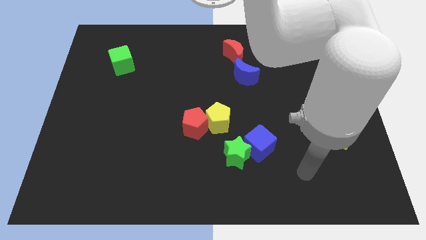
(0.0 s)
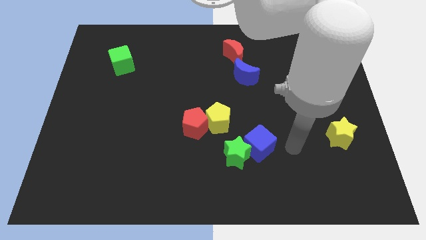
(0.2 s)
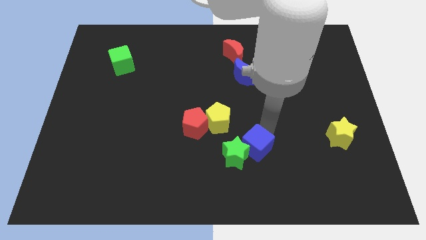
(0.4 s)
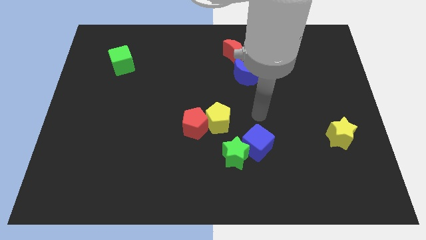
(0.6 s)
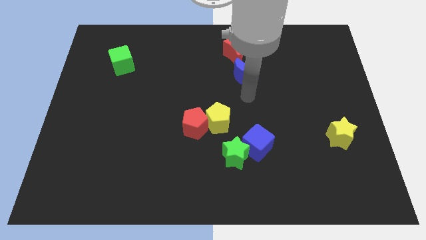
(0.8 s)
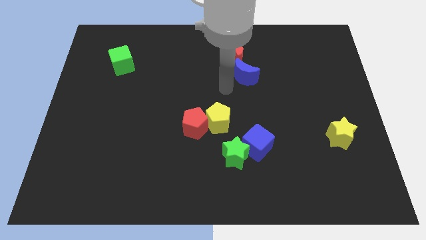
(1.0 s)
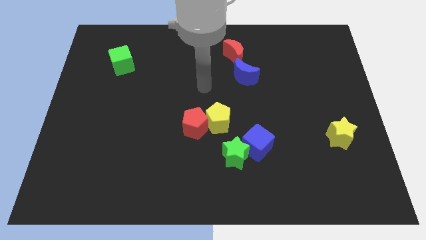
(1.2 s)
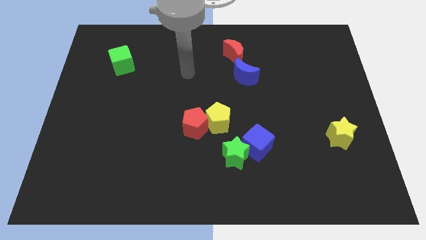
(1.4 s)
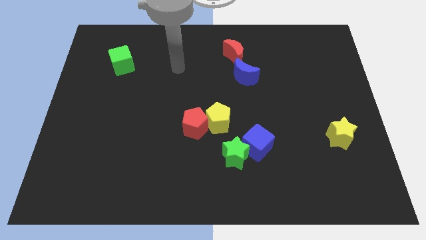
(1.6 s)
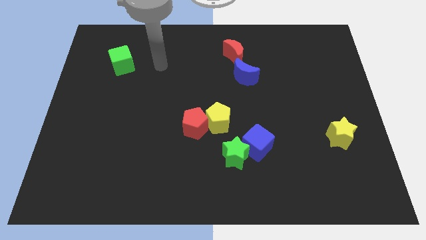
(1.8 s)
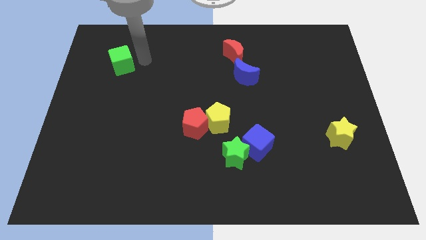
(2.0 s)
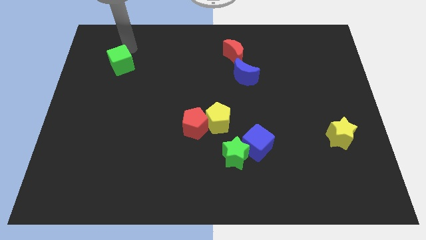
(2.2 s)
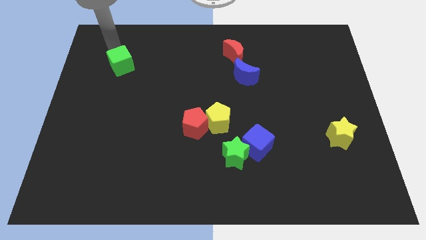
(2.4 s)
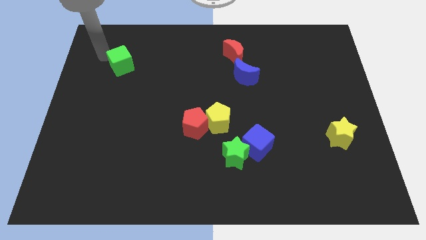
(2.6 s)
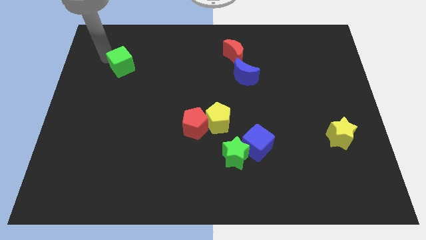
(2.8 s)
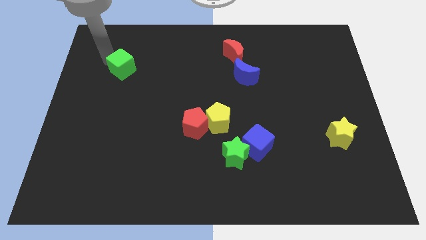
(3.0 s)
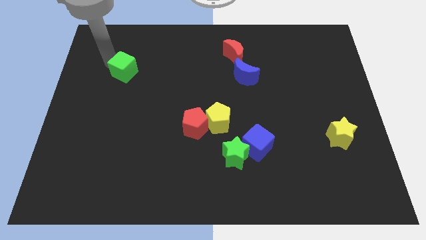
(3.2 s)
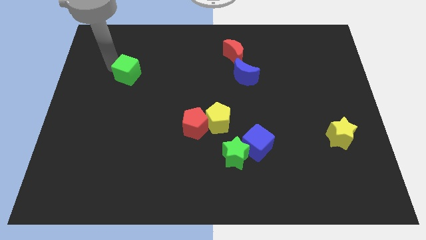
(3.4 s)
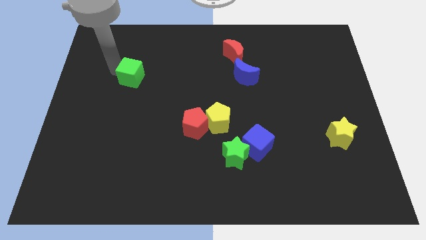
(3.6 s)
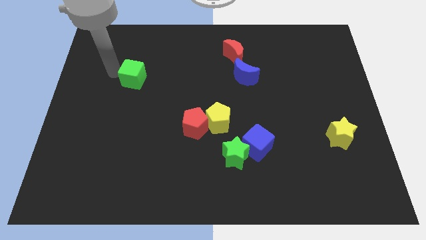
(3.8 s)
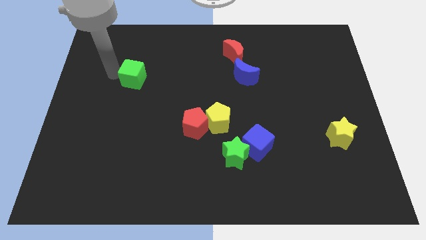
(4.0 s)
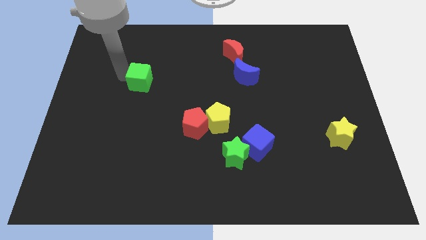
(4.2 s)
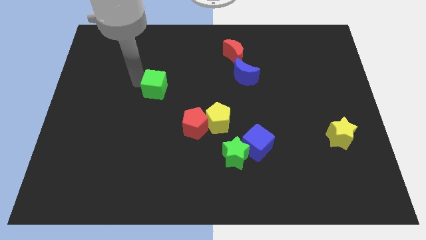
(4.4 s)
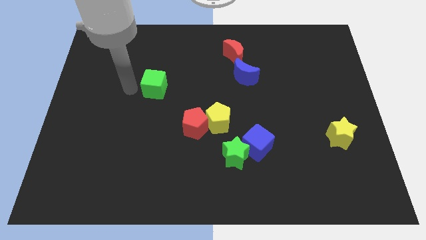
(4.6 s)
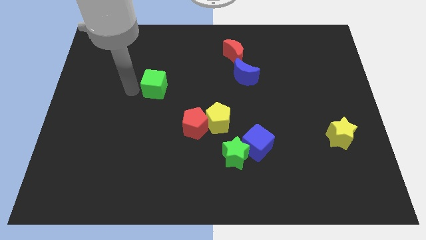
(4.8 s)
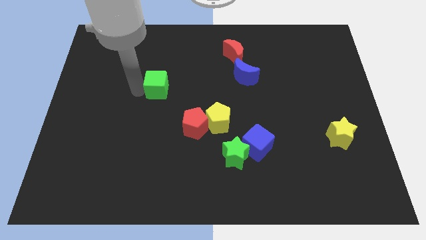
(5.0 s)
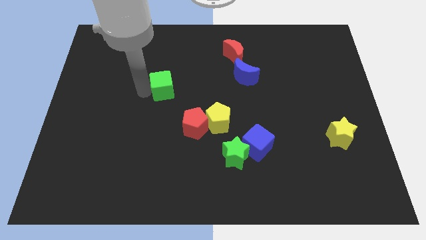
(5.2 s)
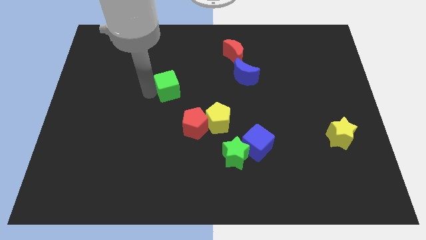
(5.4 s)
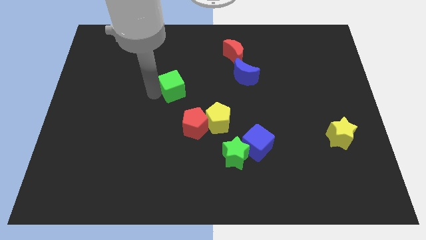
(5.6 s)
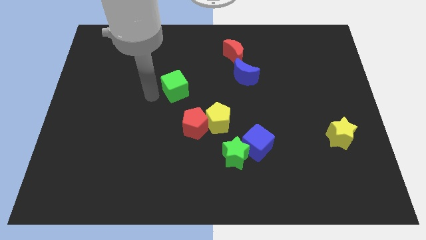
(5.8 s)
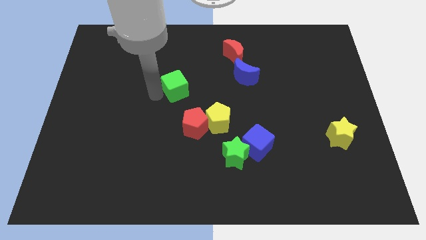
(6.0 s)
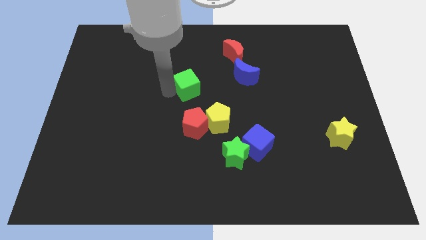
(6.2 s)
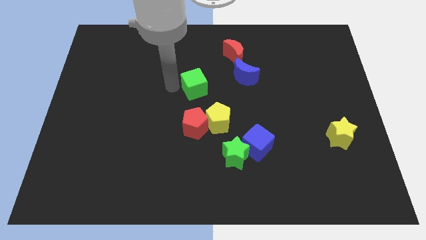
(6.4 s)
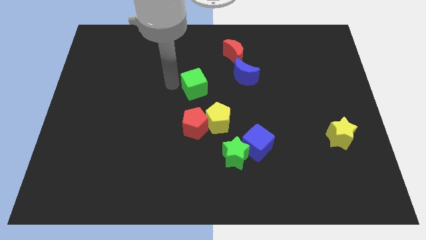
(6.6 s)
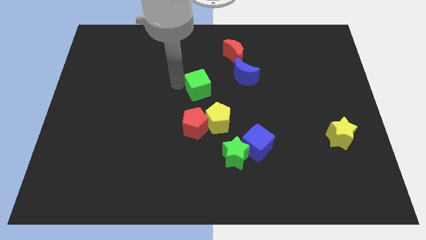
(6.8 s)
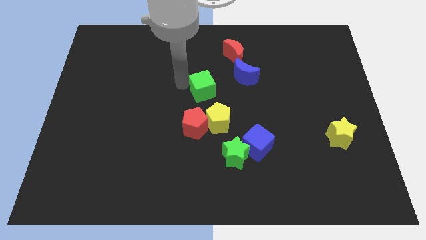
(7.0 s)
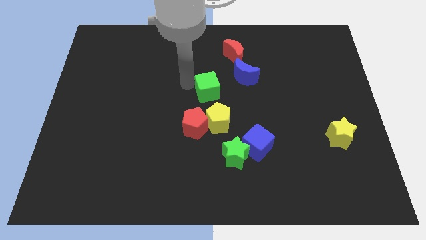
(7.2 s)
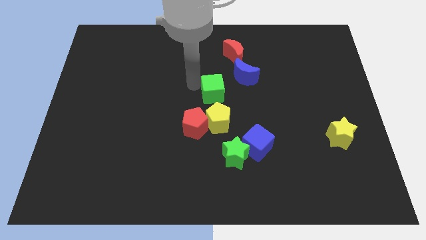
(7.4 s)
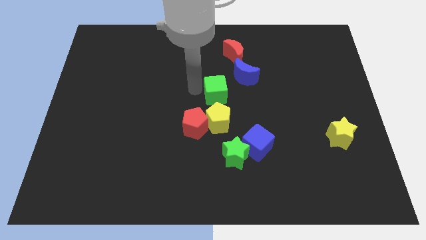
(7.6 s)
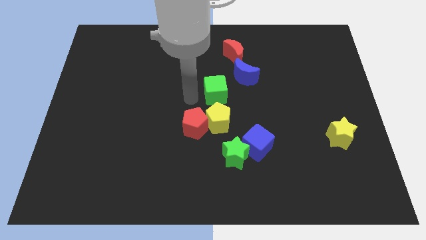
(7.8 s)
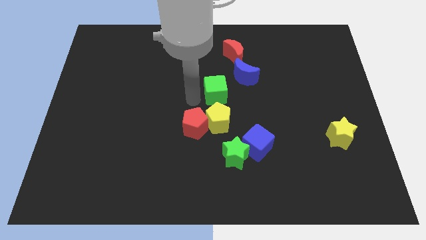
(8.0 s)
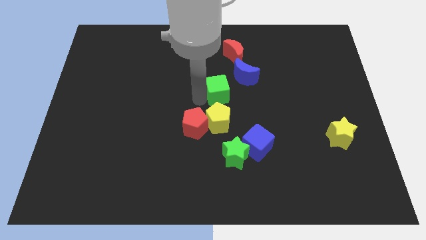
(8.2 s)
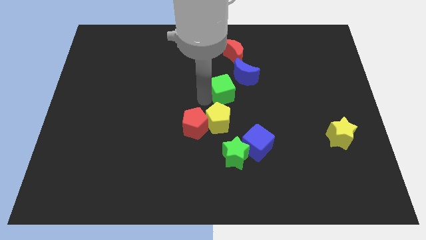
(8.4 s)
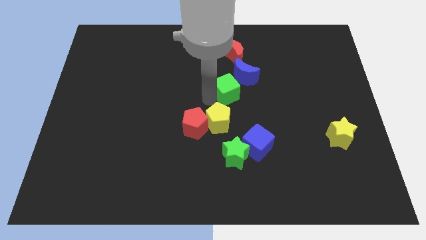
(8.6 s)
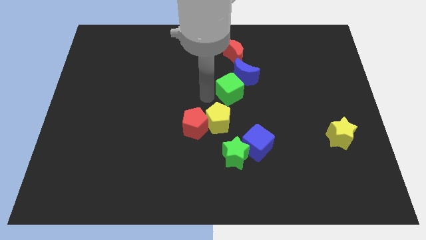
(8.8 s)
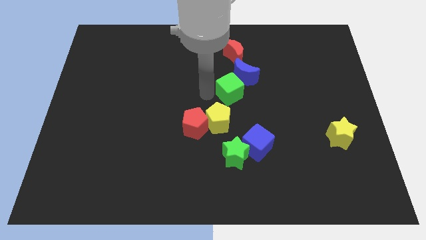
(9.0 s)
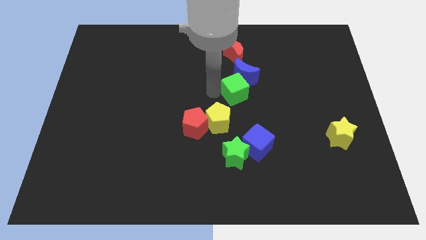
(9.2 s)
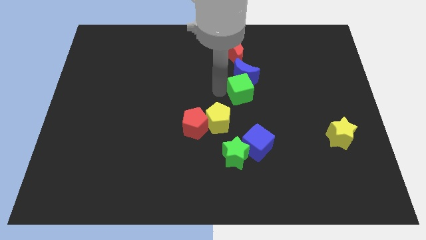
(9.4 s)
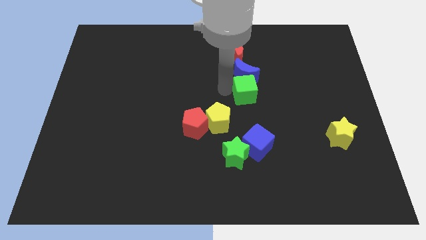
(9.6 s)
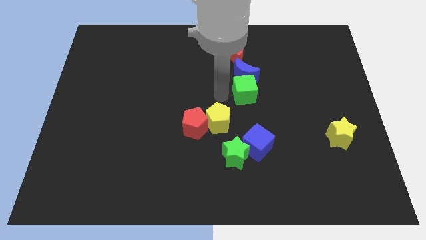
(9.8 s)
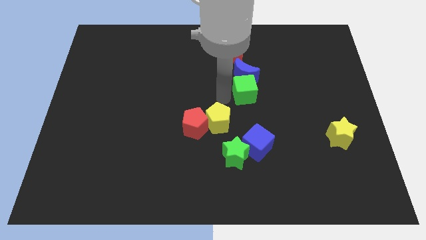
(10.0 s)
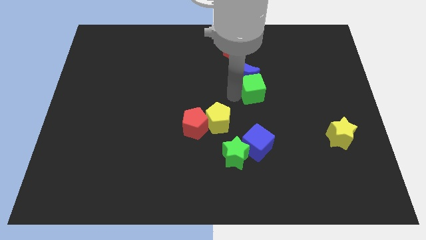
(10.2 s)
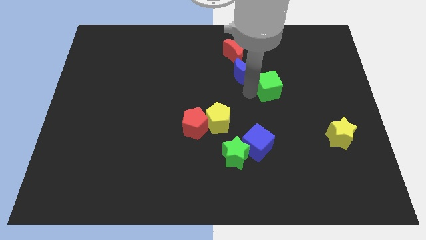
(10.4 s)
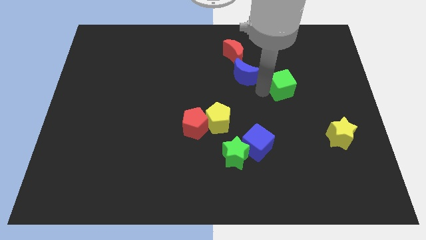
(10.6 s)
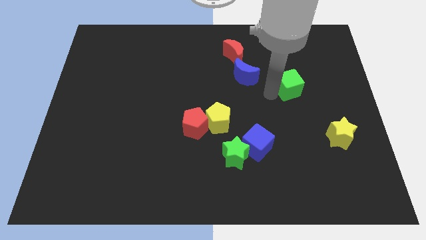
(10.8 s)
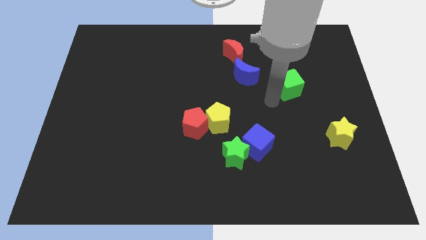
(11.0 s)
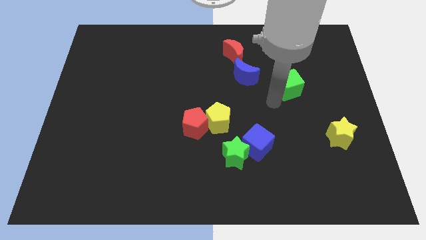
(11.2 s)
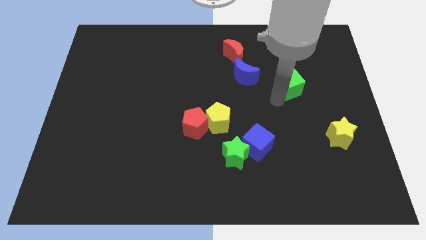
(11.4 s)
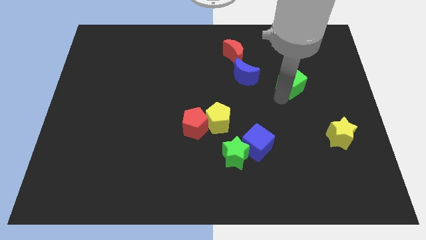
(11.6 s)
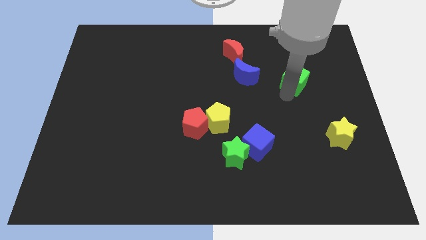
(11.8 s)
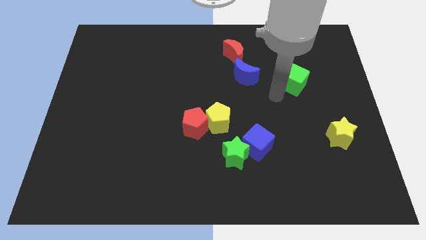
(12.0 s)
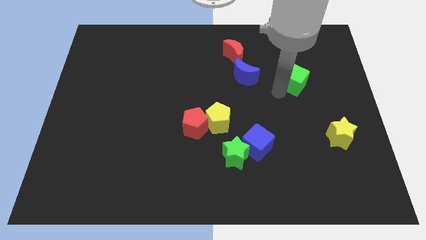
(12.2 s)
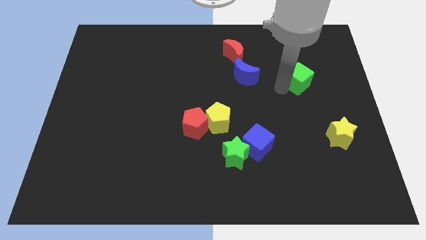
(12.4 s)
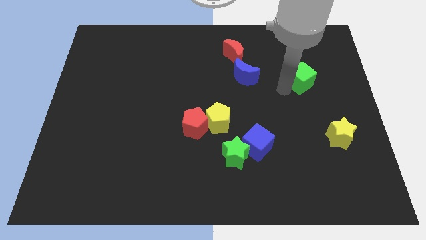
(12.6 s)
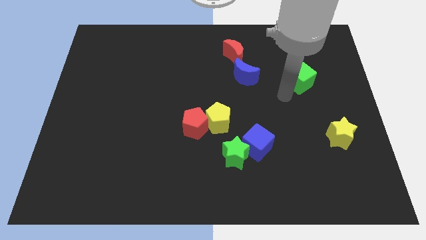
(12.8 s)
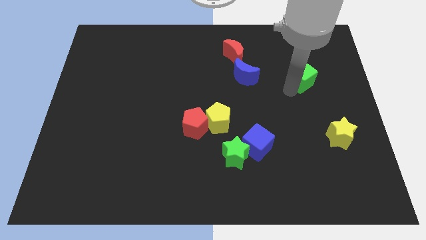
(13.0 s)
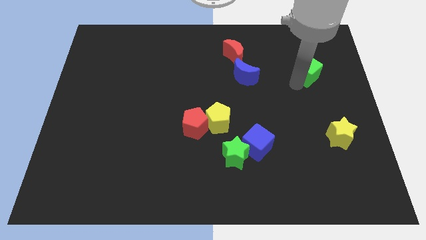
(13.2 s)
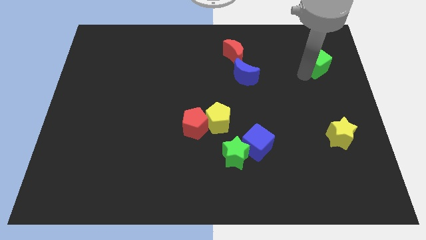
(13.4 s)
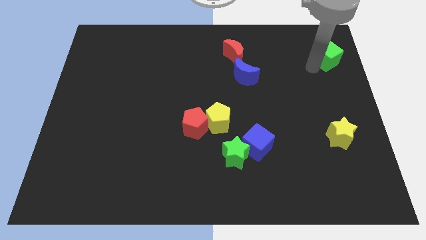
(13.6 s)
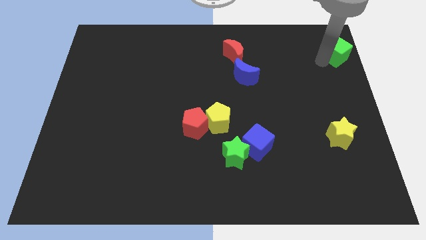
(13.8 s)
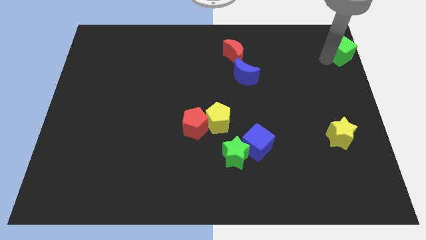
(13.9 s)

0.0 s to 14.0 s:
put the green cube to the upper right corner
